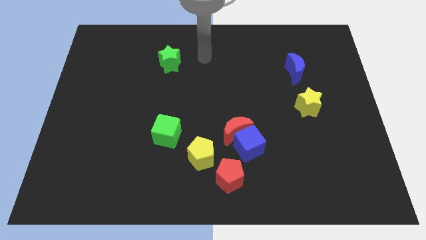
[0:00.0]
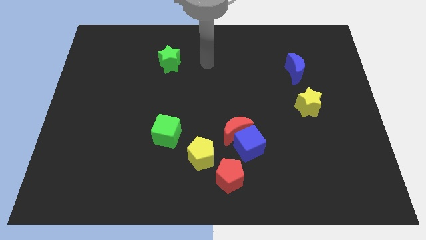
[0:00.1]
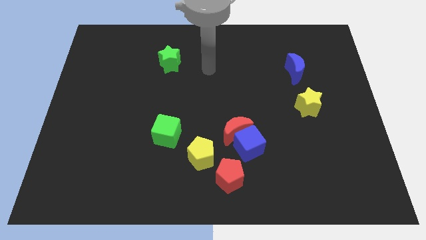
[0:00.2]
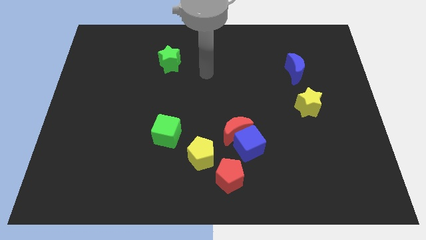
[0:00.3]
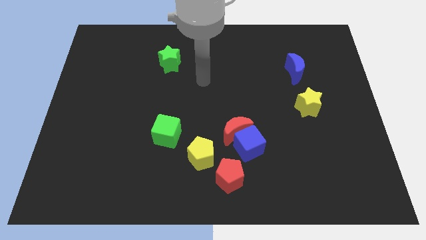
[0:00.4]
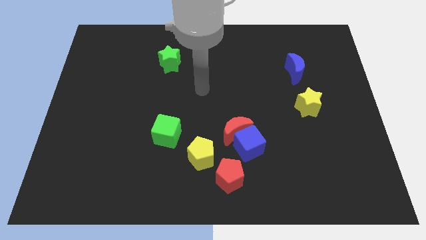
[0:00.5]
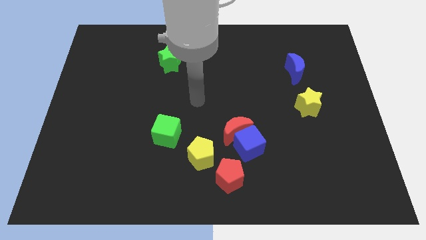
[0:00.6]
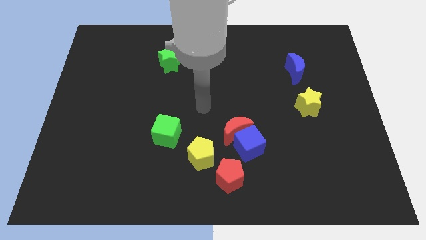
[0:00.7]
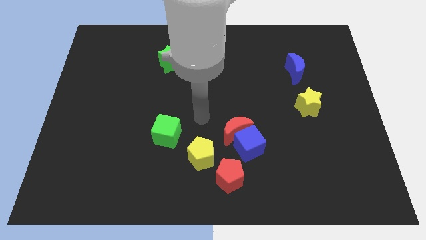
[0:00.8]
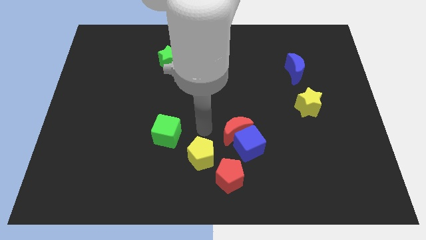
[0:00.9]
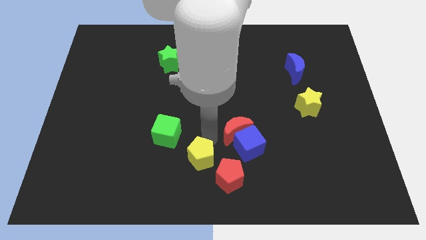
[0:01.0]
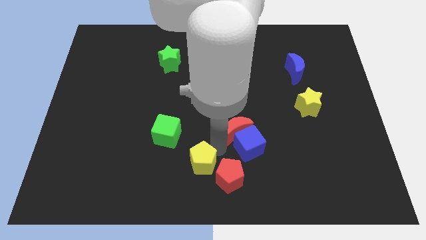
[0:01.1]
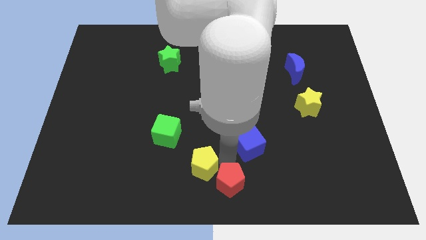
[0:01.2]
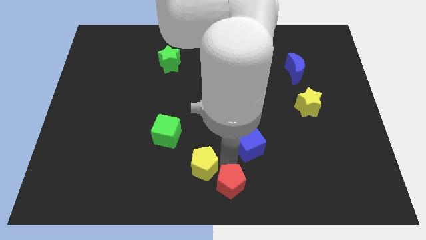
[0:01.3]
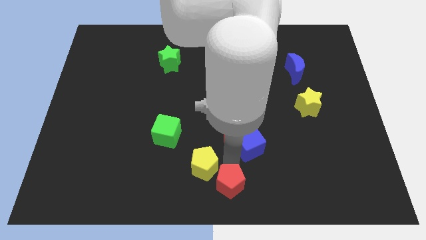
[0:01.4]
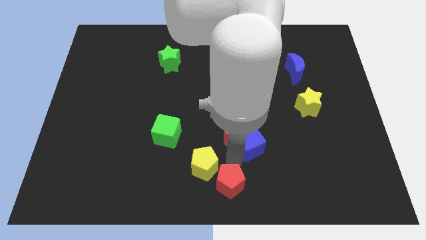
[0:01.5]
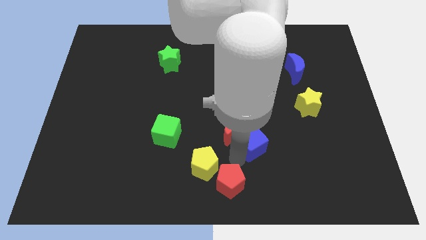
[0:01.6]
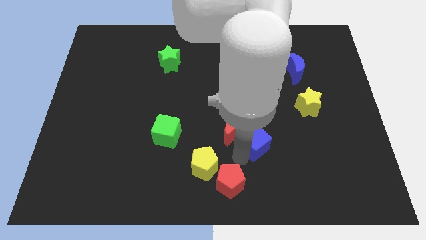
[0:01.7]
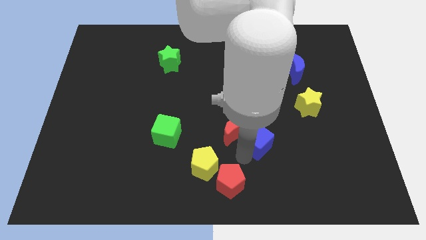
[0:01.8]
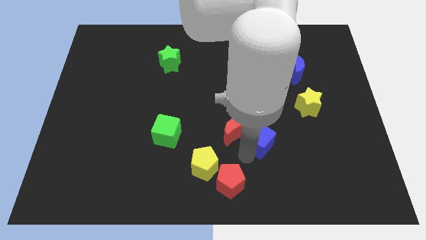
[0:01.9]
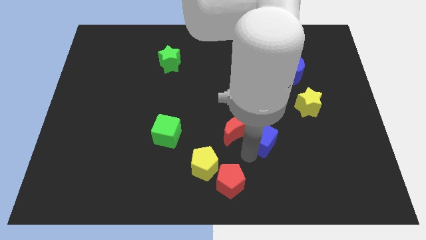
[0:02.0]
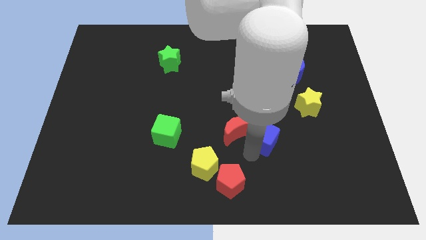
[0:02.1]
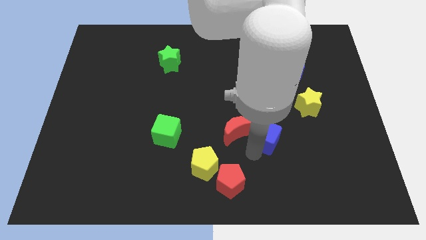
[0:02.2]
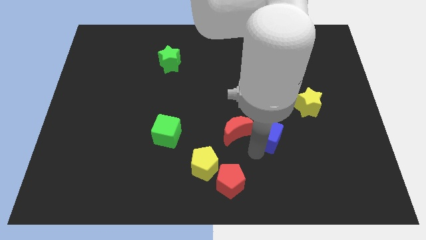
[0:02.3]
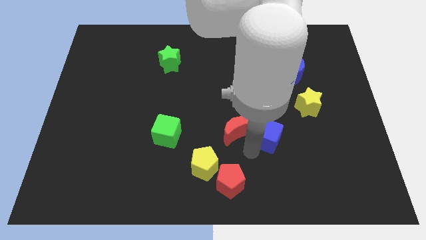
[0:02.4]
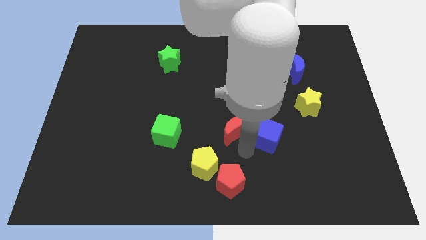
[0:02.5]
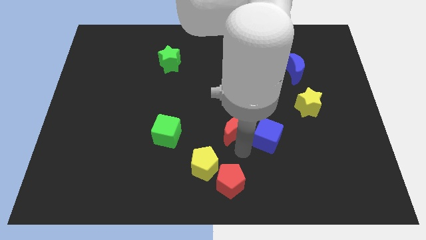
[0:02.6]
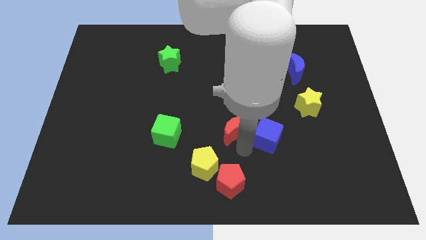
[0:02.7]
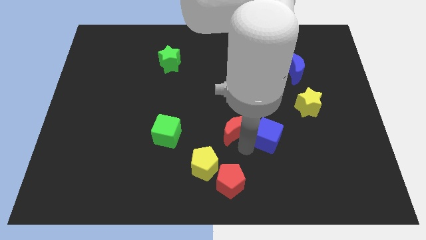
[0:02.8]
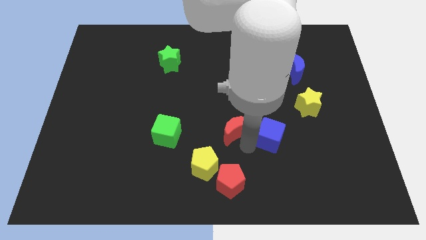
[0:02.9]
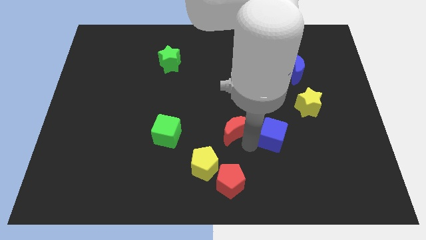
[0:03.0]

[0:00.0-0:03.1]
move the blue cube away from the red moon and red pentagon

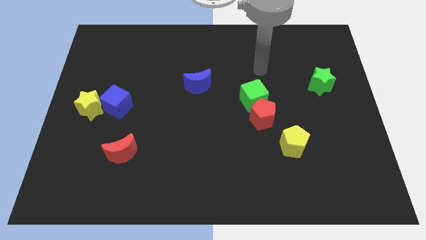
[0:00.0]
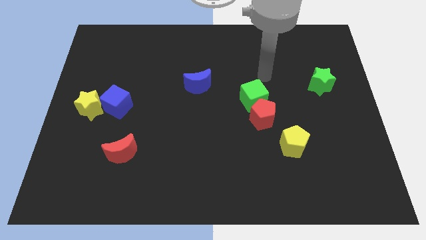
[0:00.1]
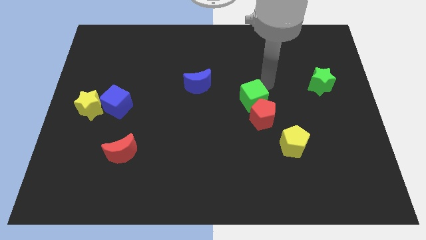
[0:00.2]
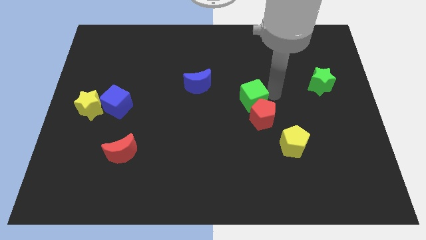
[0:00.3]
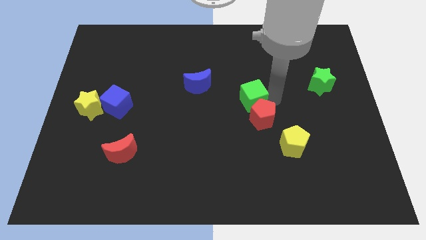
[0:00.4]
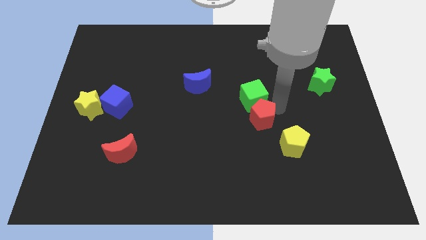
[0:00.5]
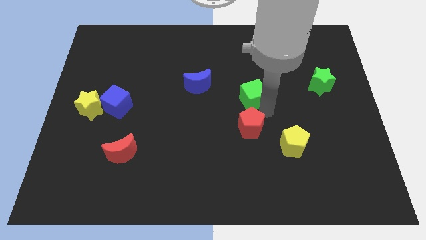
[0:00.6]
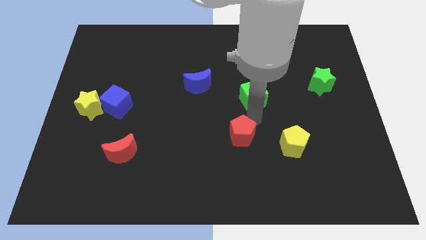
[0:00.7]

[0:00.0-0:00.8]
pull the green cube apart from the red pentagon

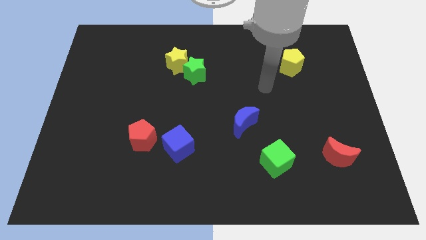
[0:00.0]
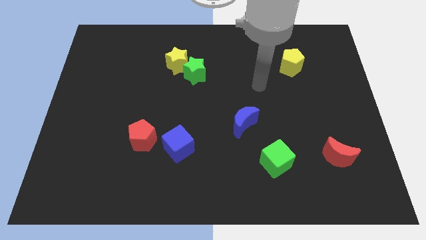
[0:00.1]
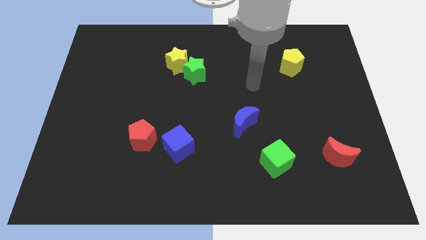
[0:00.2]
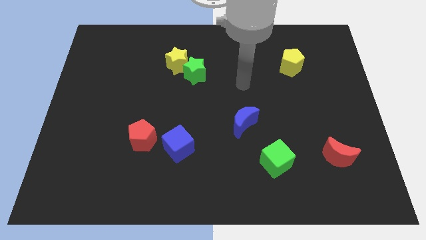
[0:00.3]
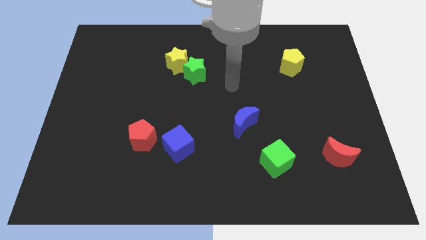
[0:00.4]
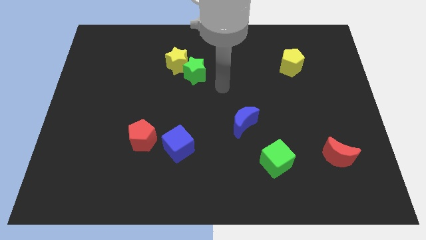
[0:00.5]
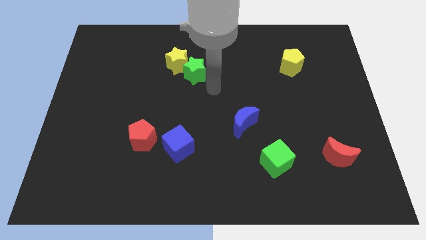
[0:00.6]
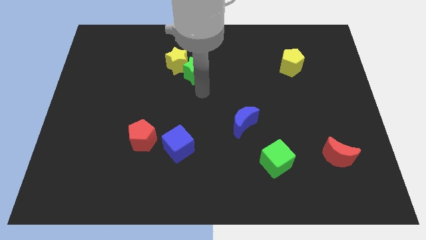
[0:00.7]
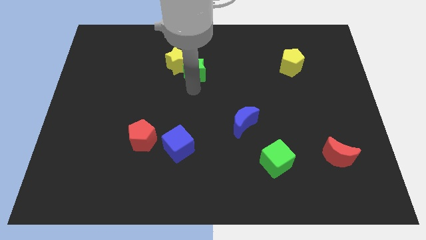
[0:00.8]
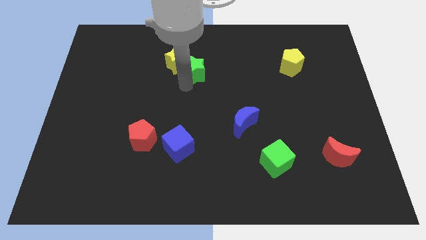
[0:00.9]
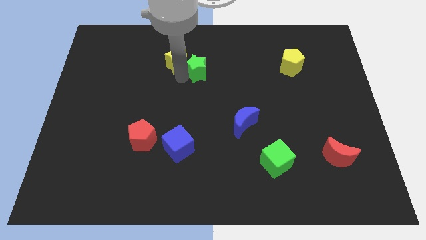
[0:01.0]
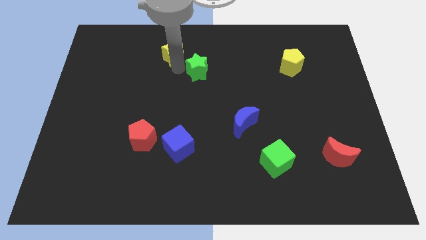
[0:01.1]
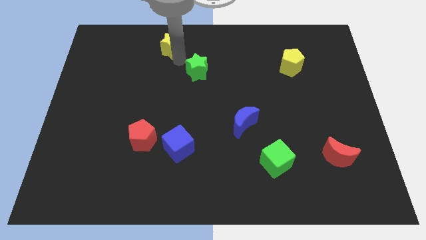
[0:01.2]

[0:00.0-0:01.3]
pull the green star apart from the yellow star

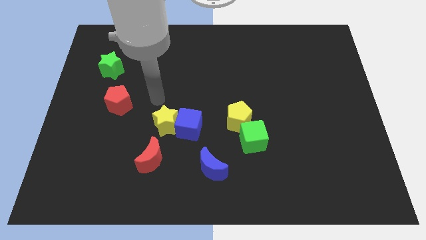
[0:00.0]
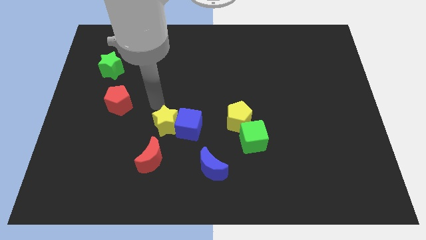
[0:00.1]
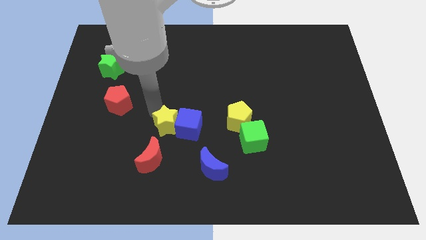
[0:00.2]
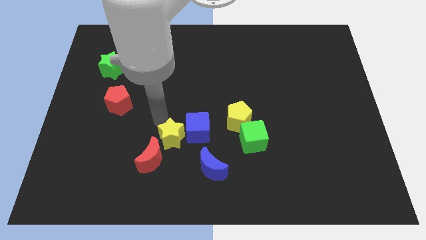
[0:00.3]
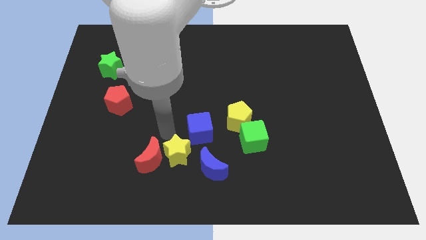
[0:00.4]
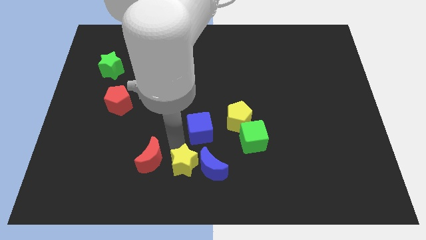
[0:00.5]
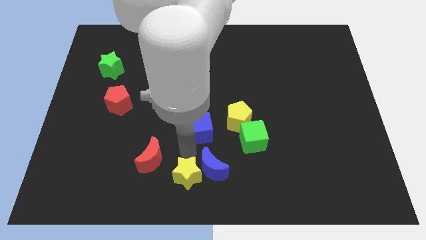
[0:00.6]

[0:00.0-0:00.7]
separate the blue cube from the yellow star

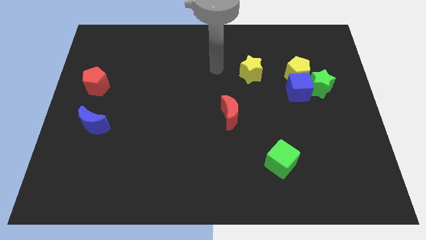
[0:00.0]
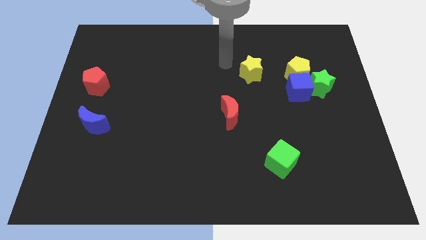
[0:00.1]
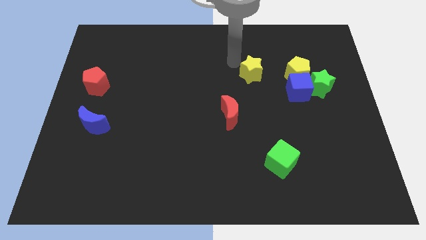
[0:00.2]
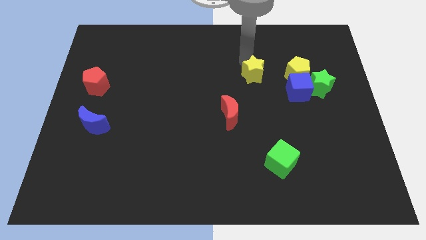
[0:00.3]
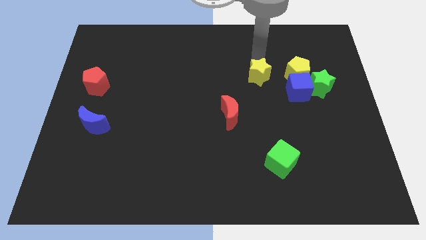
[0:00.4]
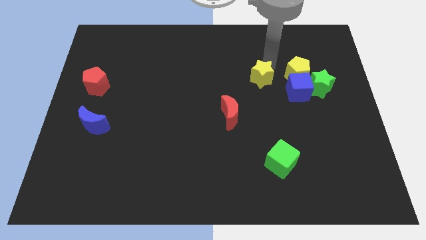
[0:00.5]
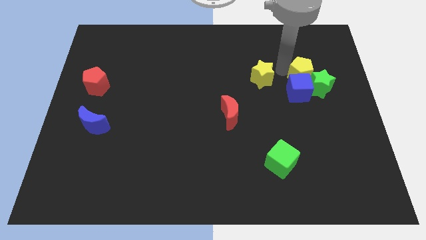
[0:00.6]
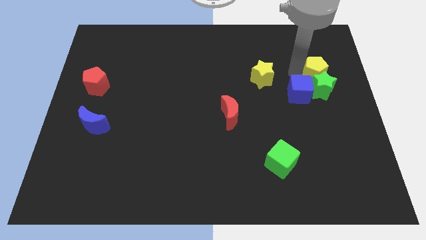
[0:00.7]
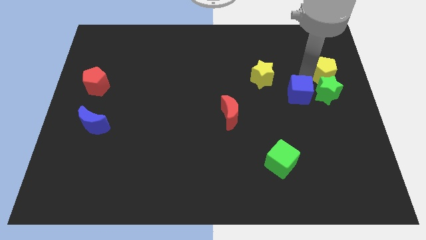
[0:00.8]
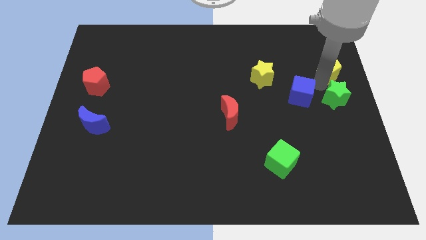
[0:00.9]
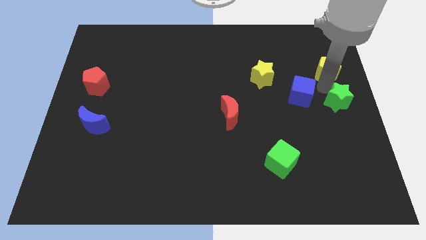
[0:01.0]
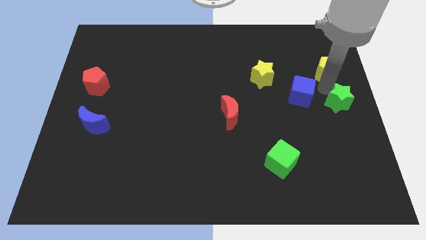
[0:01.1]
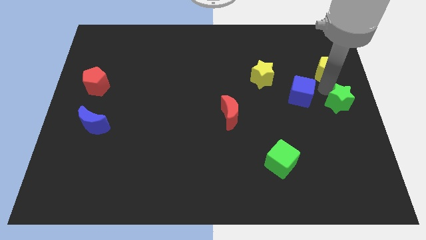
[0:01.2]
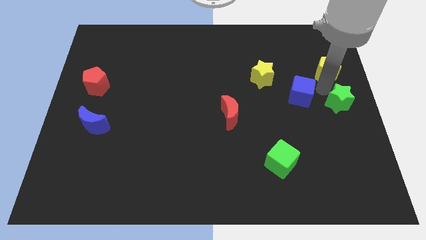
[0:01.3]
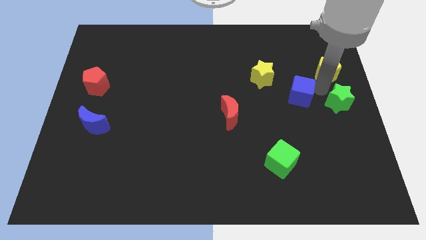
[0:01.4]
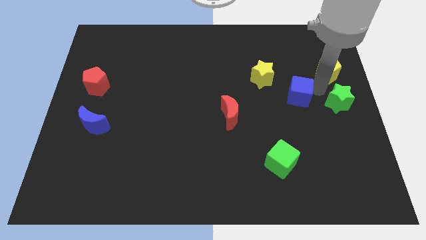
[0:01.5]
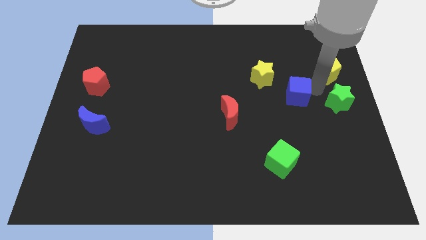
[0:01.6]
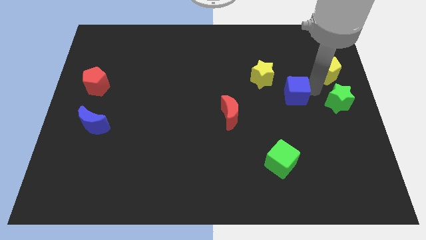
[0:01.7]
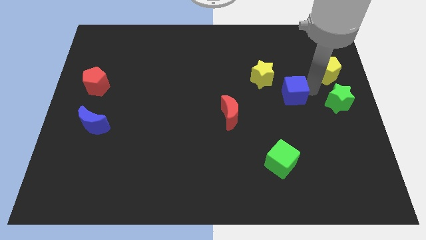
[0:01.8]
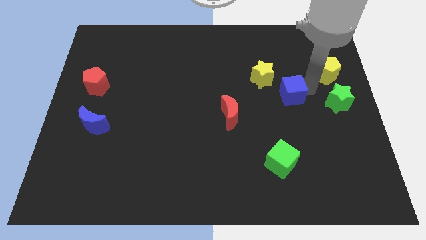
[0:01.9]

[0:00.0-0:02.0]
move the blue cube away from the green star and yellow pentagon

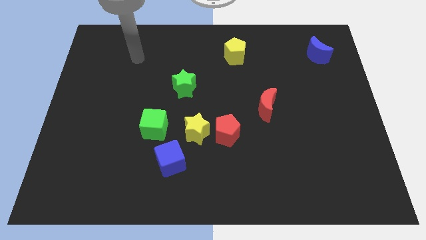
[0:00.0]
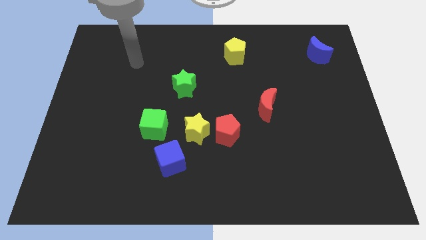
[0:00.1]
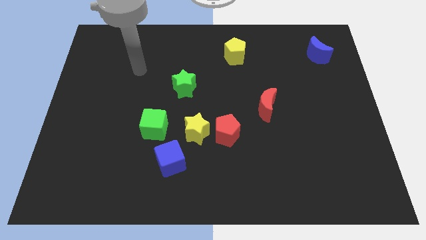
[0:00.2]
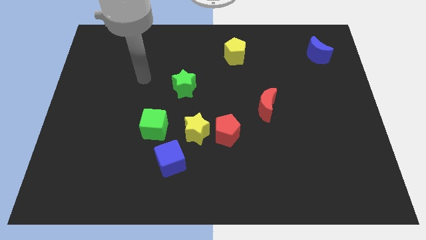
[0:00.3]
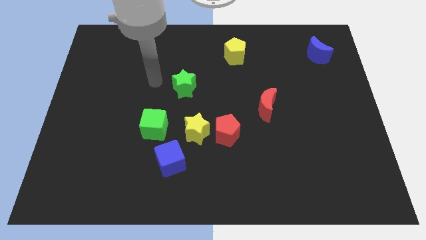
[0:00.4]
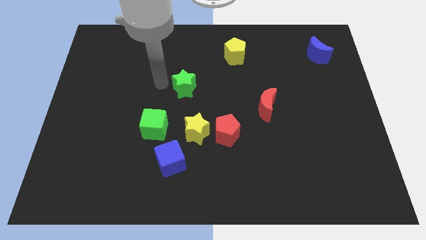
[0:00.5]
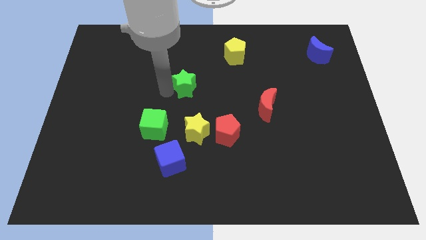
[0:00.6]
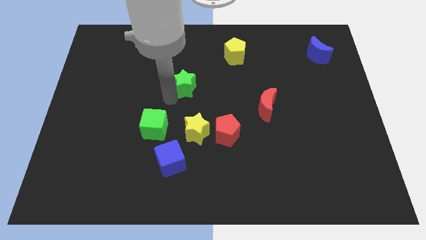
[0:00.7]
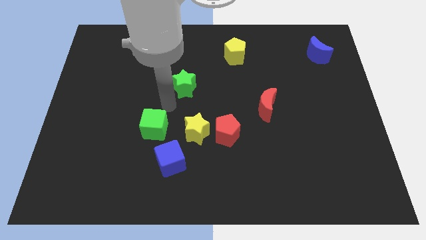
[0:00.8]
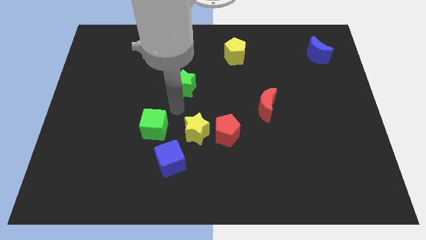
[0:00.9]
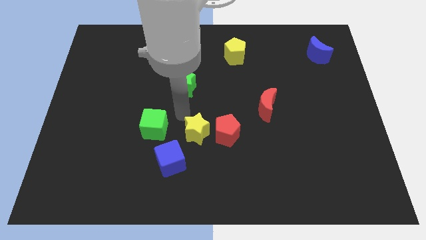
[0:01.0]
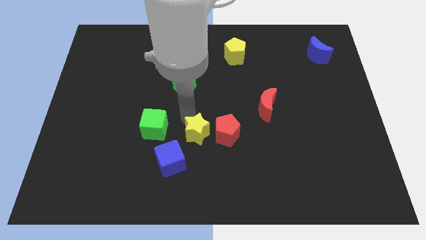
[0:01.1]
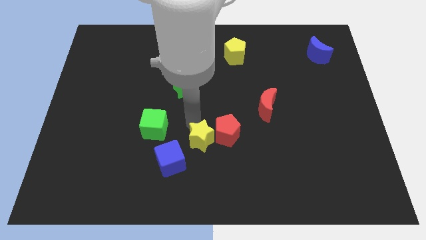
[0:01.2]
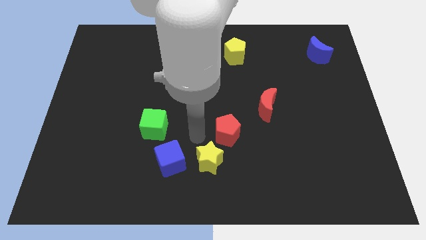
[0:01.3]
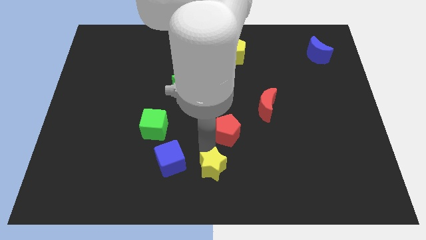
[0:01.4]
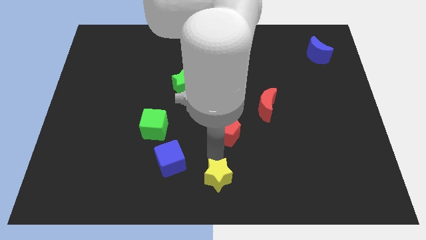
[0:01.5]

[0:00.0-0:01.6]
pull the red pentagon apart from the yellow star
